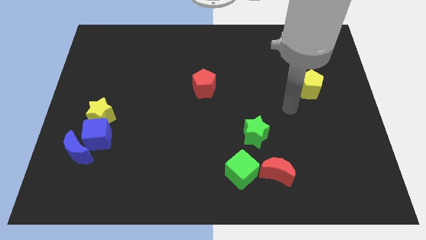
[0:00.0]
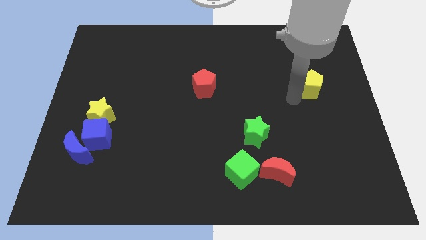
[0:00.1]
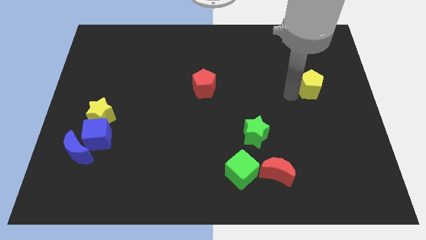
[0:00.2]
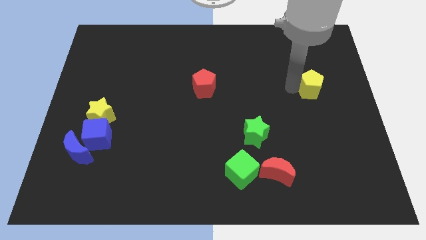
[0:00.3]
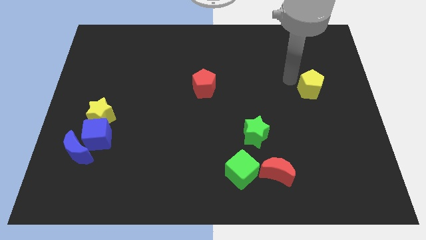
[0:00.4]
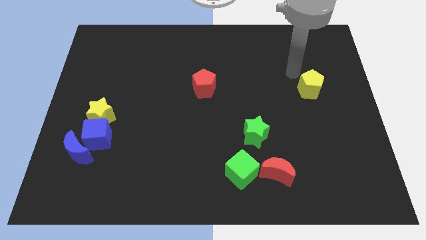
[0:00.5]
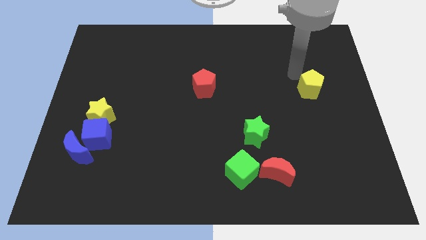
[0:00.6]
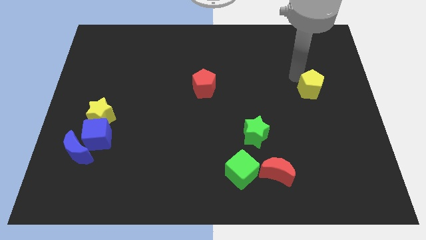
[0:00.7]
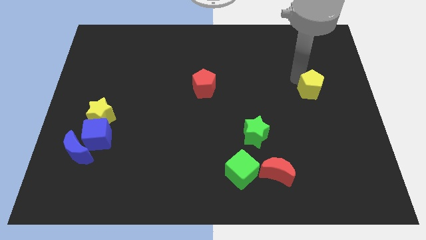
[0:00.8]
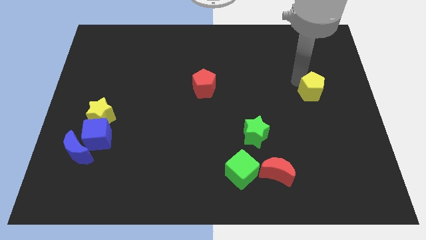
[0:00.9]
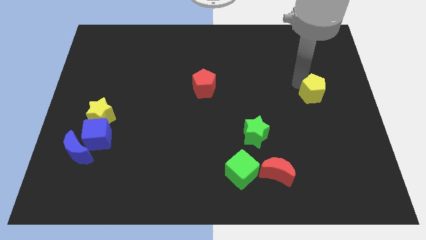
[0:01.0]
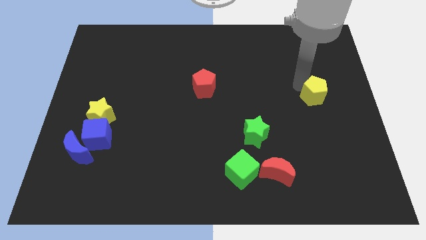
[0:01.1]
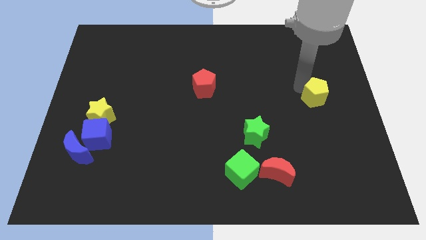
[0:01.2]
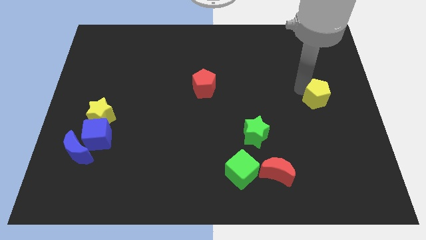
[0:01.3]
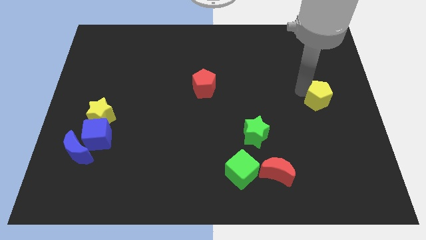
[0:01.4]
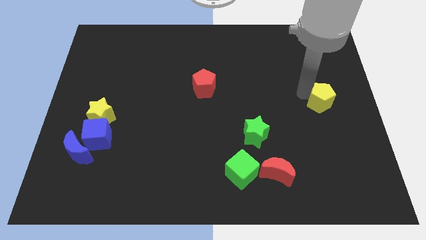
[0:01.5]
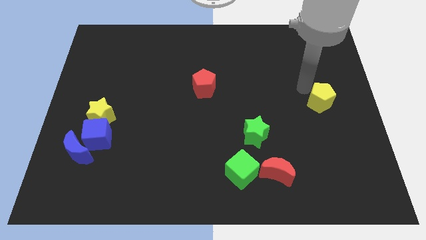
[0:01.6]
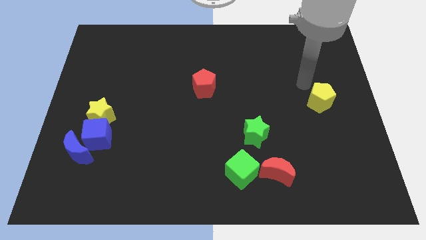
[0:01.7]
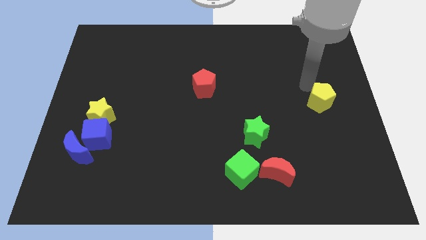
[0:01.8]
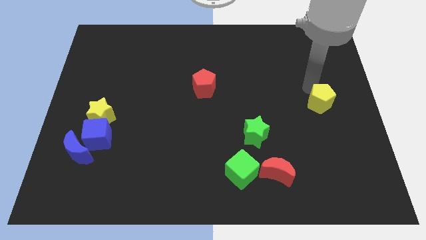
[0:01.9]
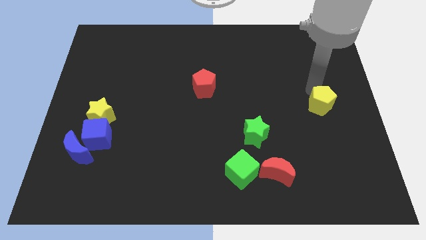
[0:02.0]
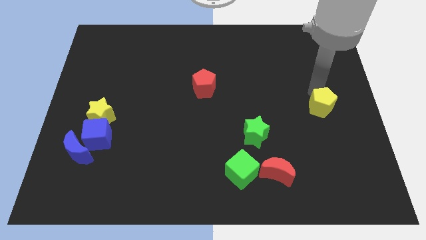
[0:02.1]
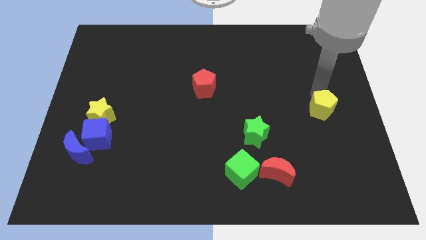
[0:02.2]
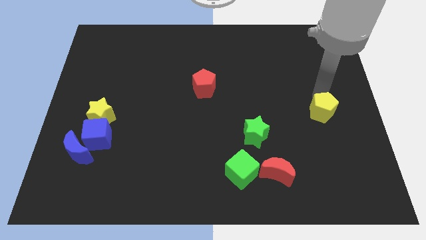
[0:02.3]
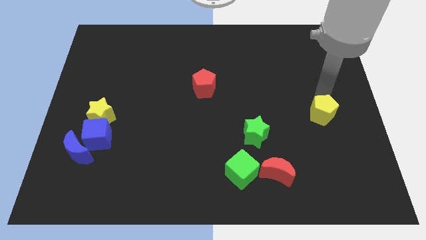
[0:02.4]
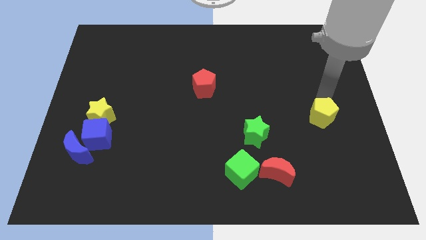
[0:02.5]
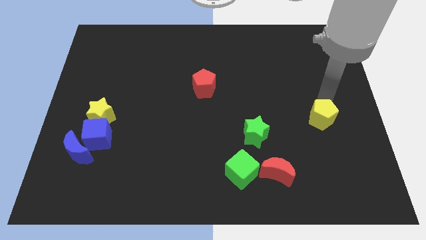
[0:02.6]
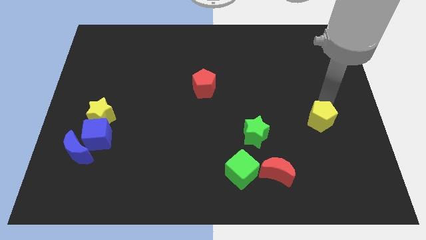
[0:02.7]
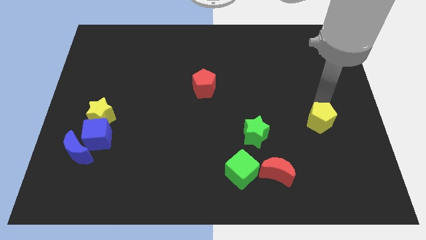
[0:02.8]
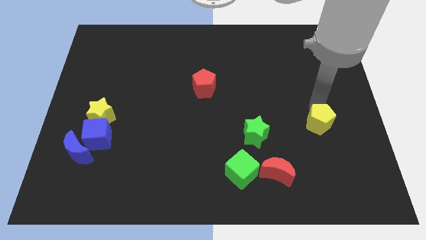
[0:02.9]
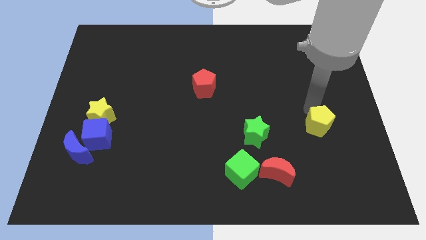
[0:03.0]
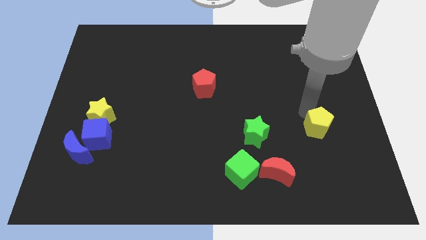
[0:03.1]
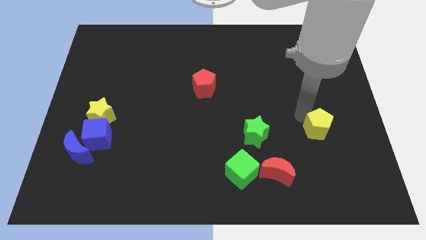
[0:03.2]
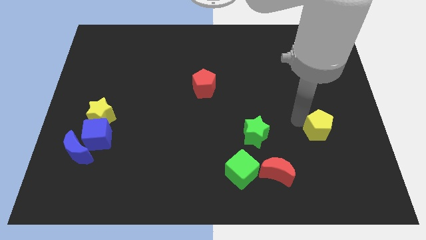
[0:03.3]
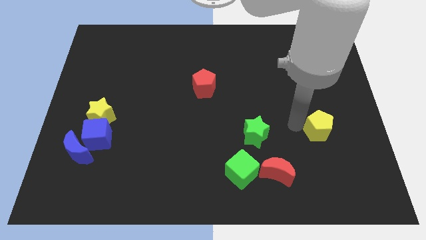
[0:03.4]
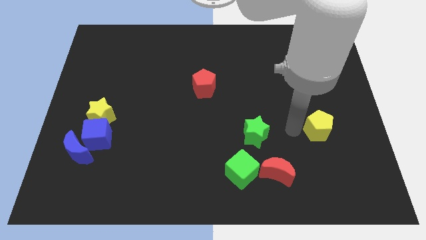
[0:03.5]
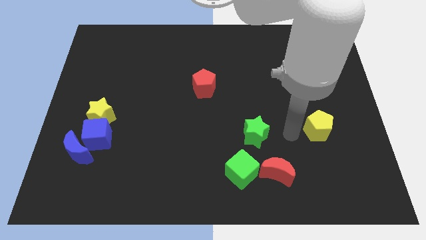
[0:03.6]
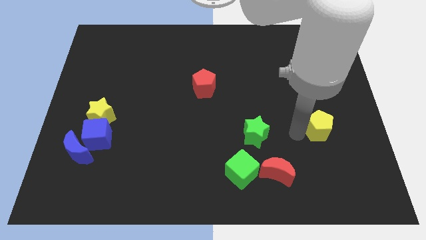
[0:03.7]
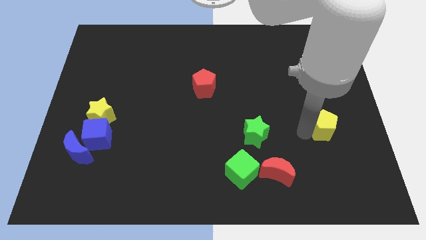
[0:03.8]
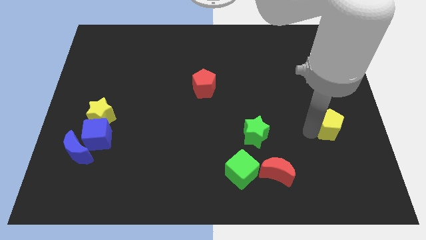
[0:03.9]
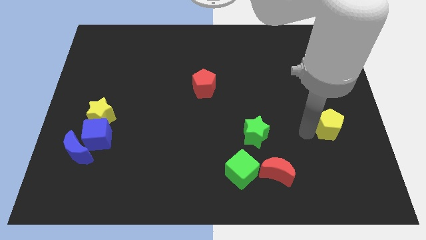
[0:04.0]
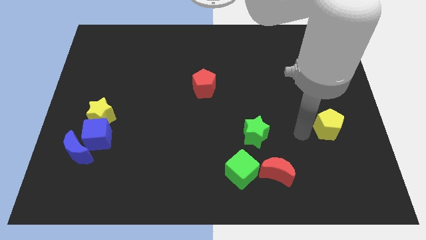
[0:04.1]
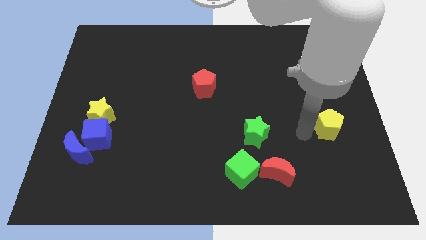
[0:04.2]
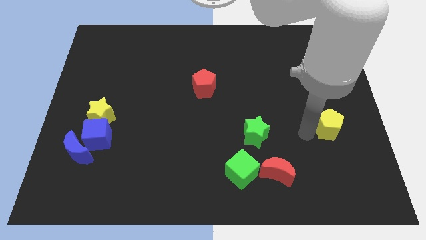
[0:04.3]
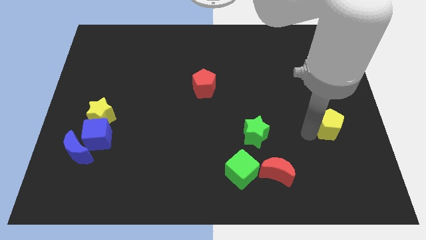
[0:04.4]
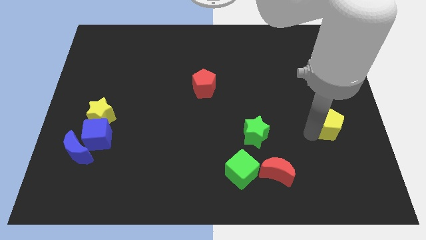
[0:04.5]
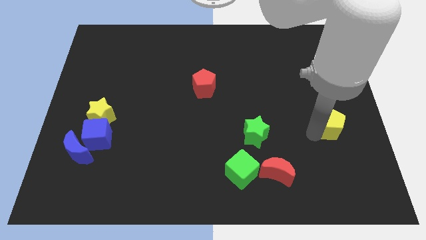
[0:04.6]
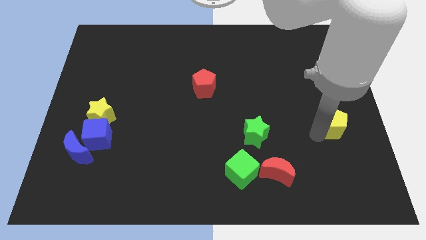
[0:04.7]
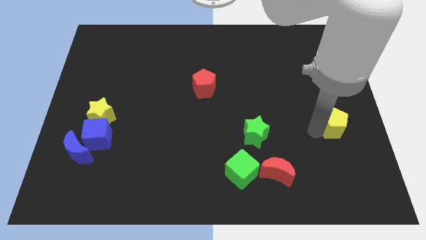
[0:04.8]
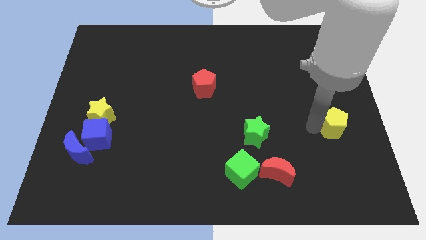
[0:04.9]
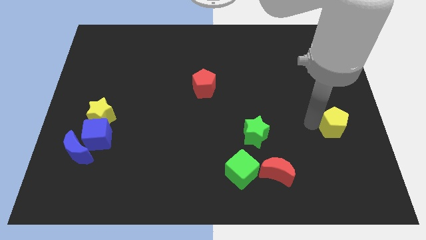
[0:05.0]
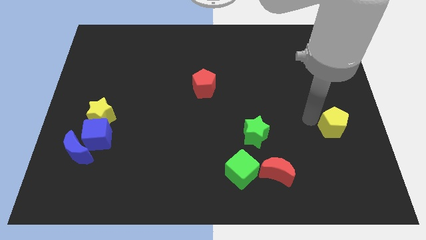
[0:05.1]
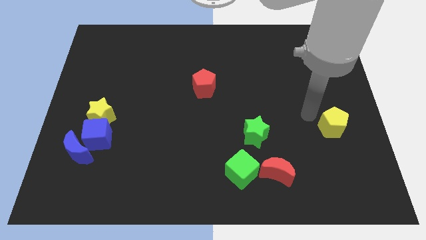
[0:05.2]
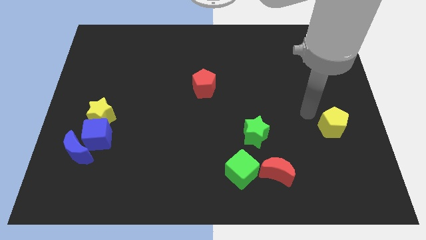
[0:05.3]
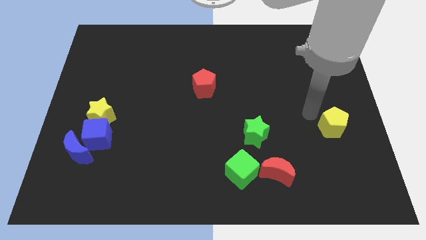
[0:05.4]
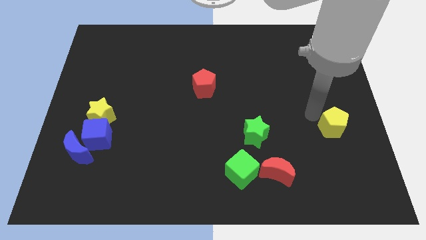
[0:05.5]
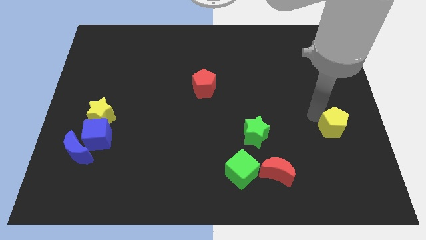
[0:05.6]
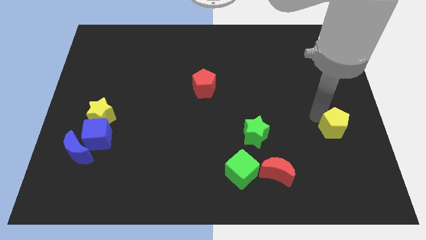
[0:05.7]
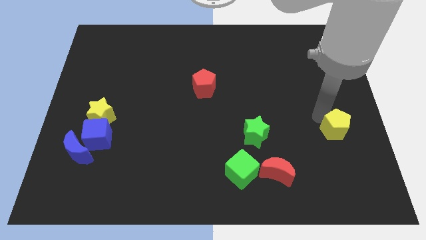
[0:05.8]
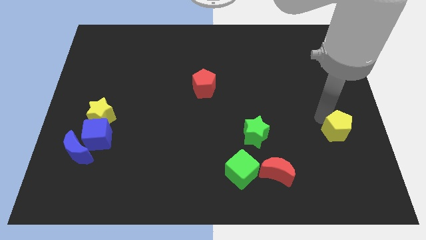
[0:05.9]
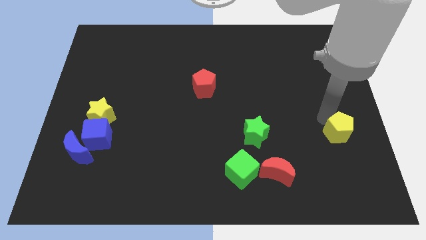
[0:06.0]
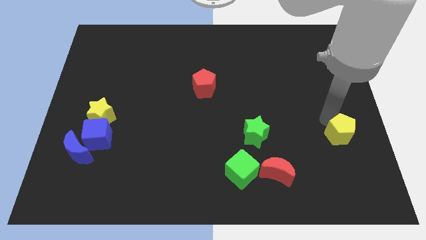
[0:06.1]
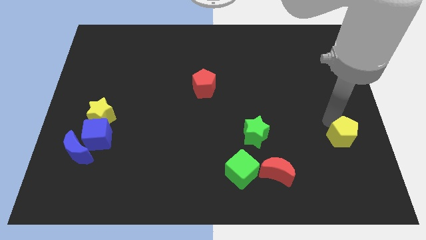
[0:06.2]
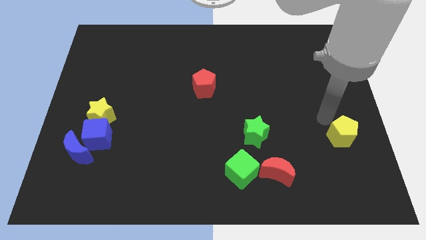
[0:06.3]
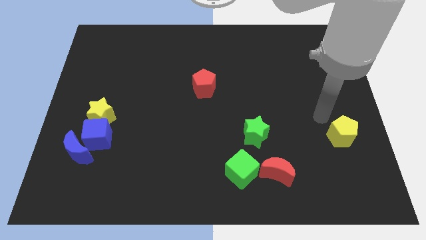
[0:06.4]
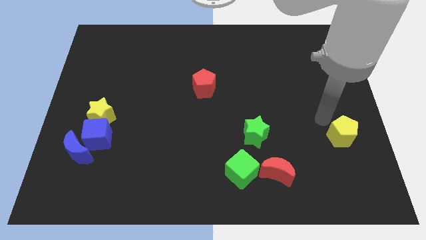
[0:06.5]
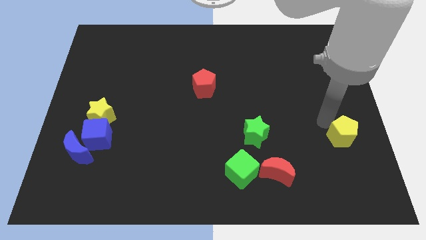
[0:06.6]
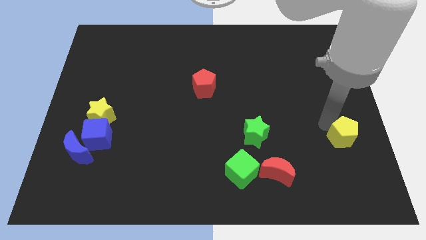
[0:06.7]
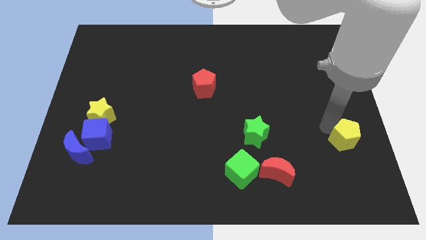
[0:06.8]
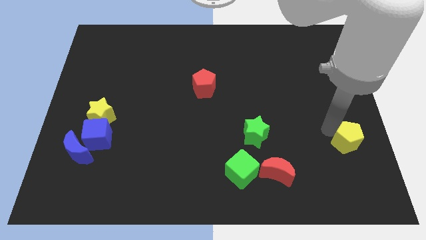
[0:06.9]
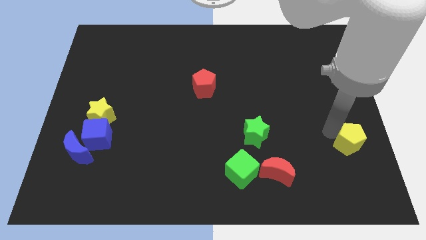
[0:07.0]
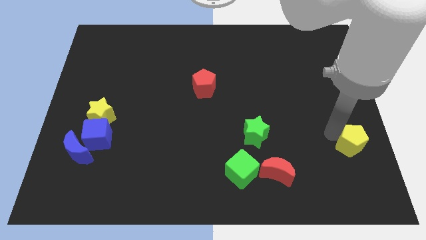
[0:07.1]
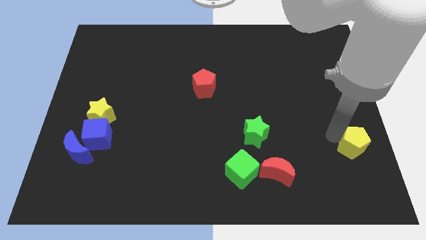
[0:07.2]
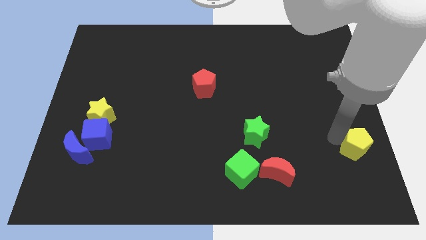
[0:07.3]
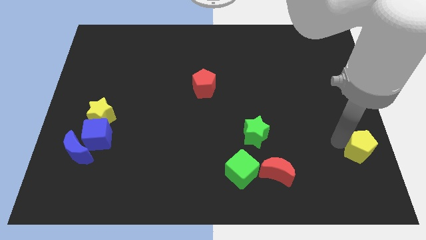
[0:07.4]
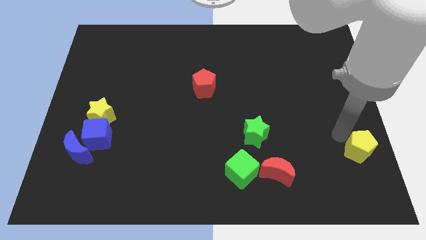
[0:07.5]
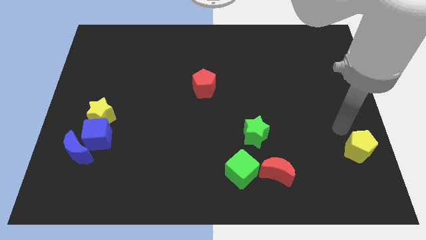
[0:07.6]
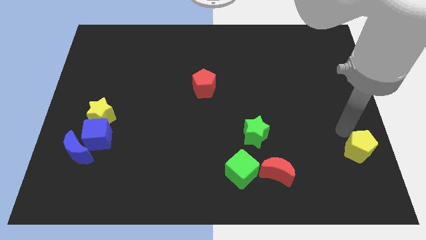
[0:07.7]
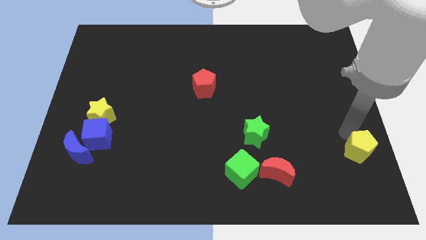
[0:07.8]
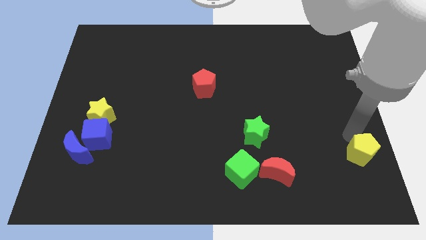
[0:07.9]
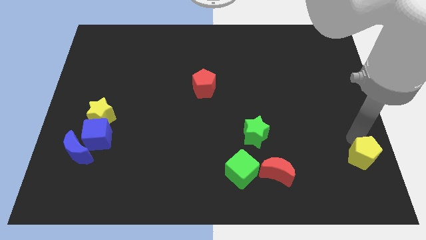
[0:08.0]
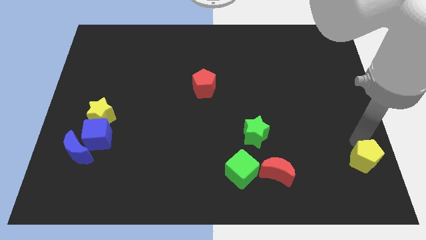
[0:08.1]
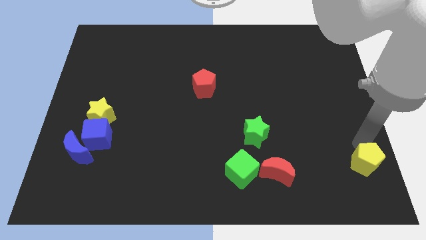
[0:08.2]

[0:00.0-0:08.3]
slide the yellow pentagon to the bottom right
